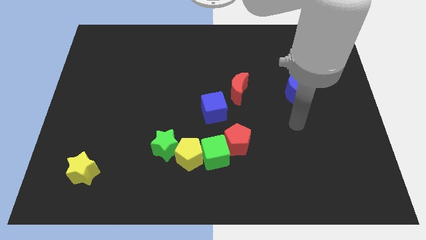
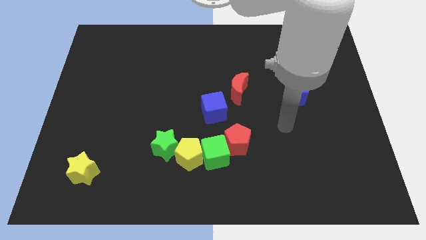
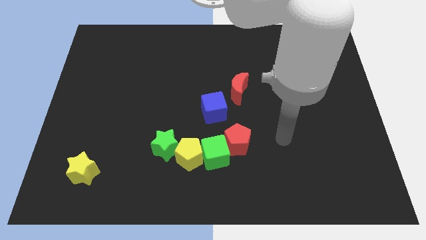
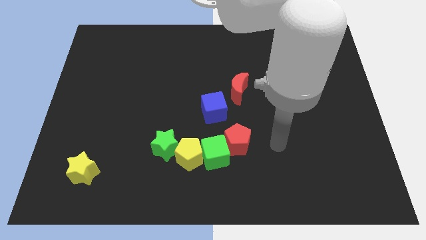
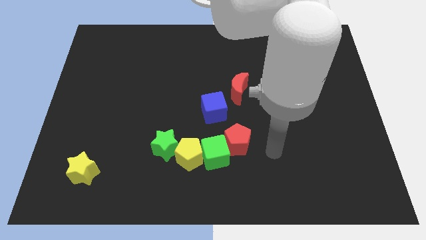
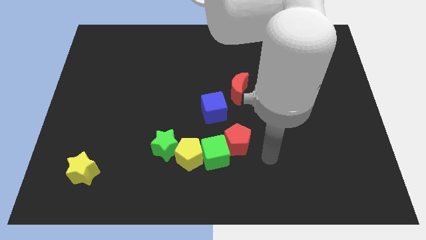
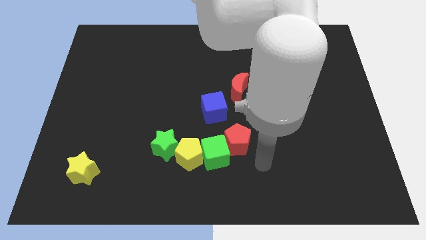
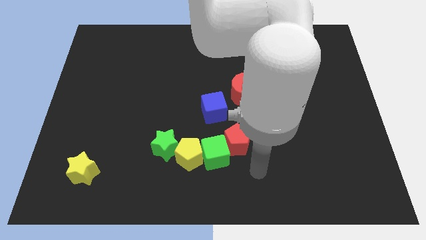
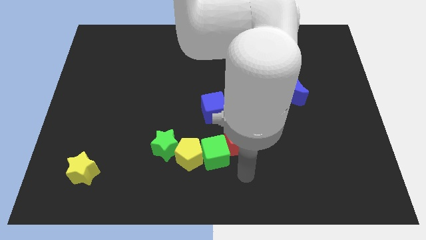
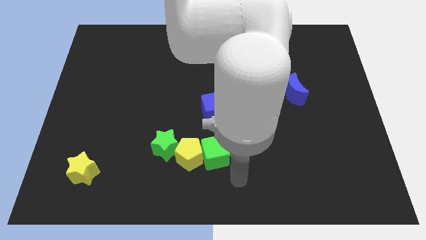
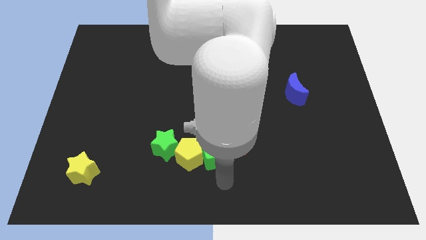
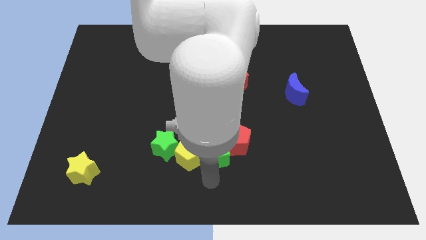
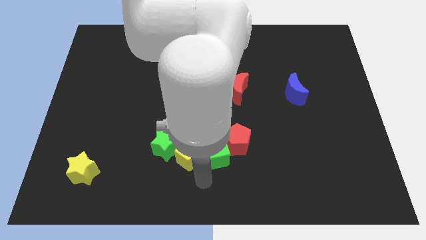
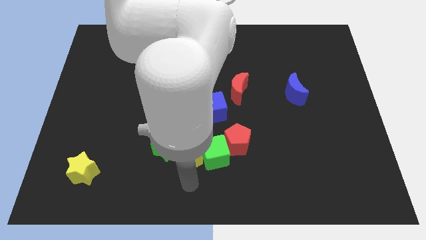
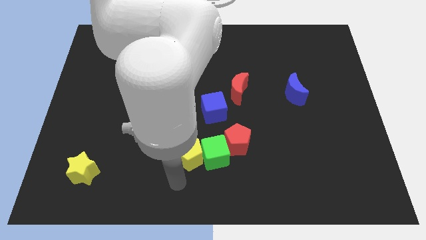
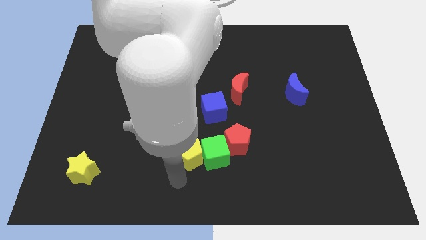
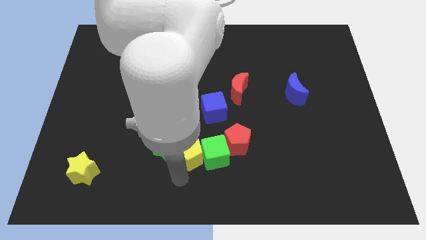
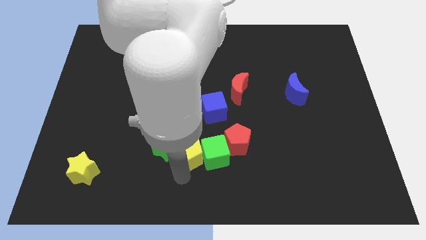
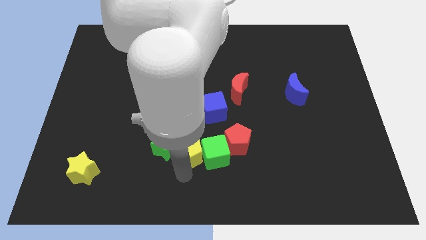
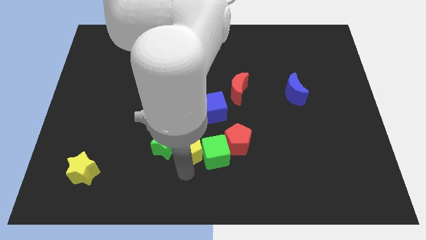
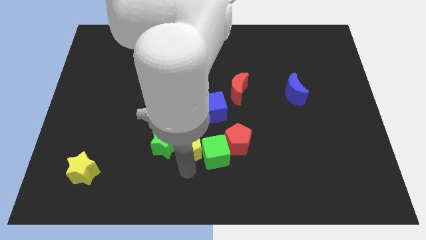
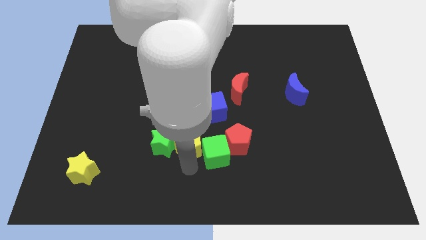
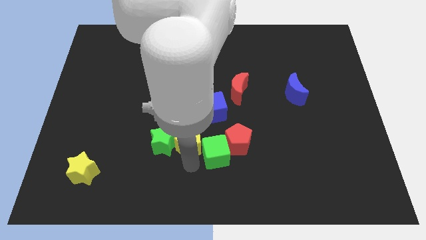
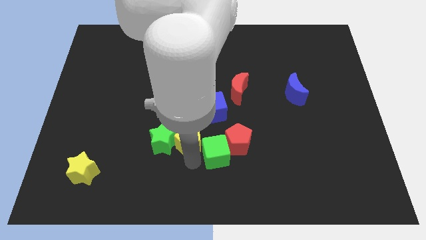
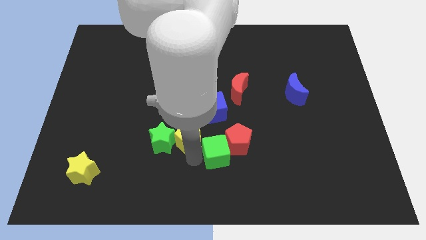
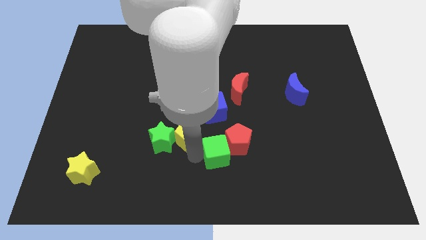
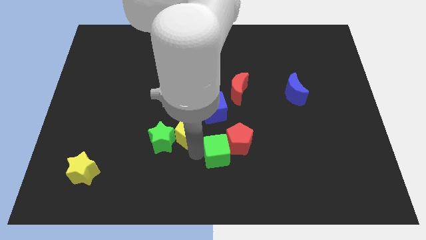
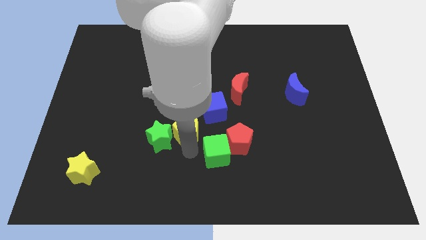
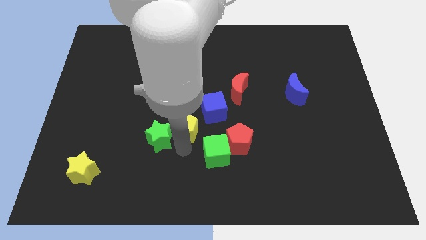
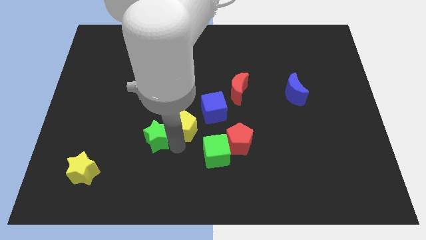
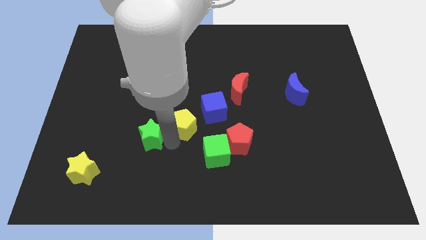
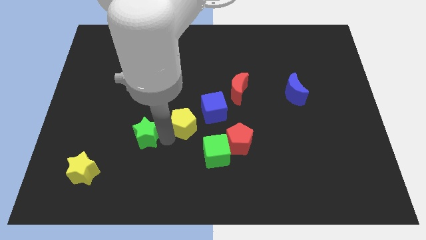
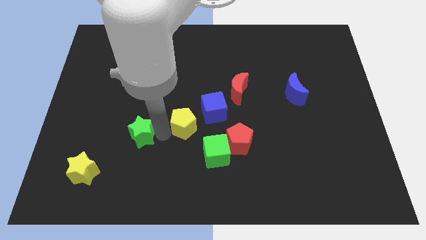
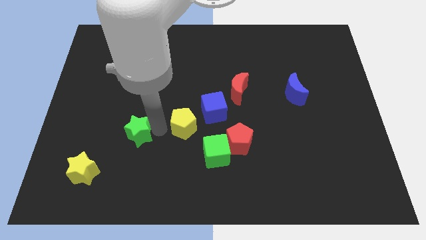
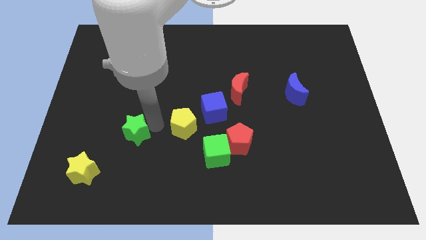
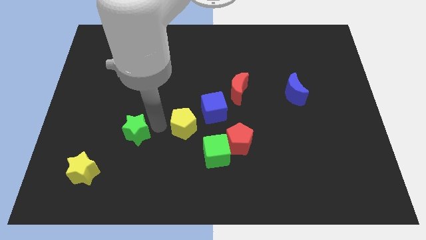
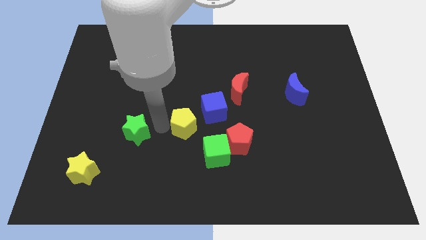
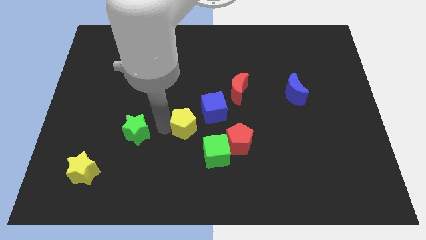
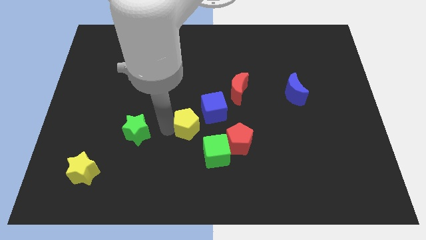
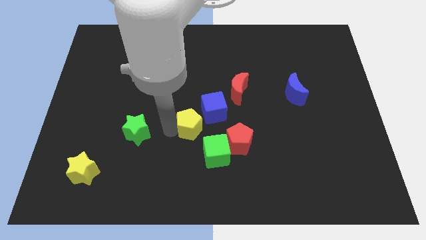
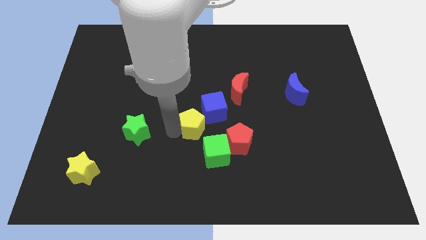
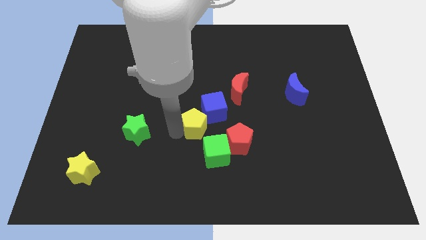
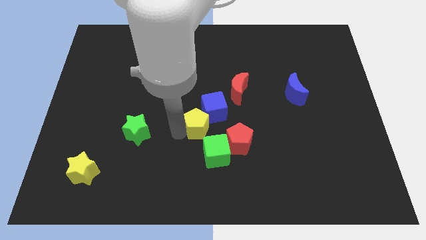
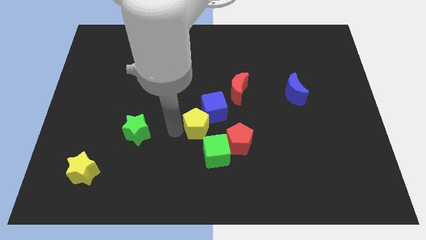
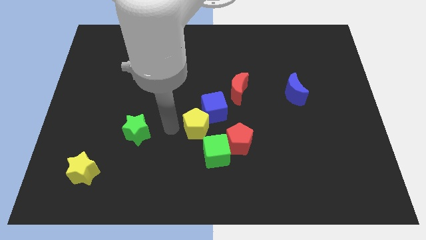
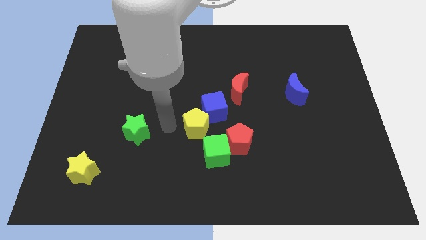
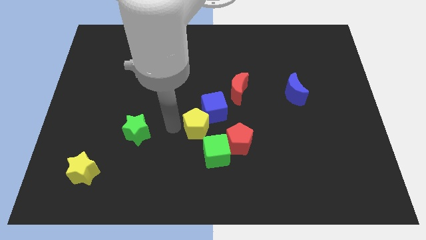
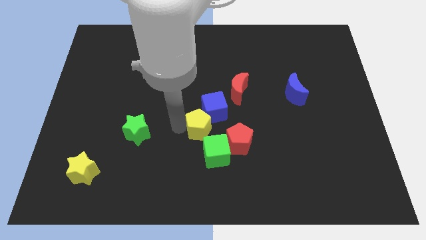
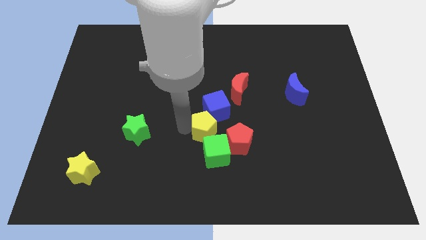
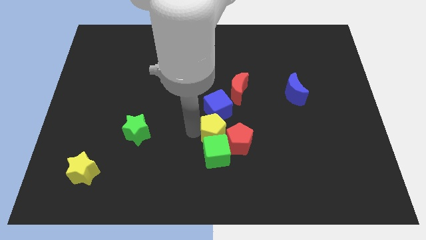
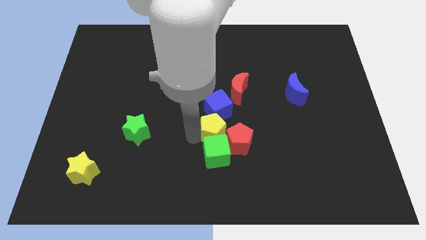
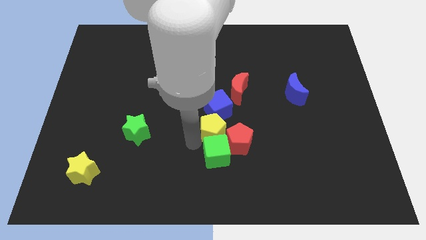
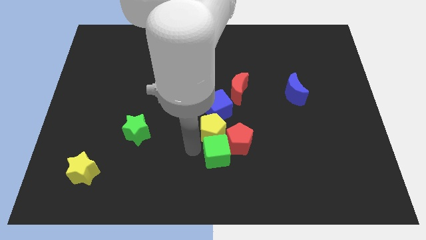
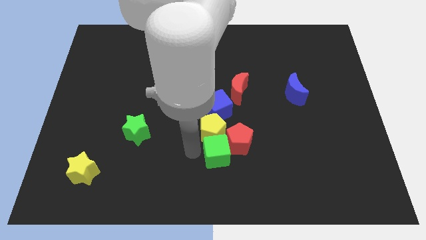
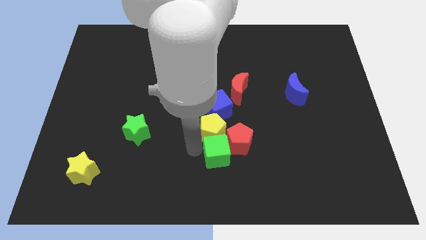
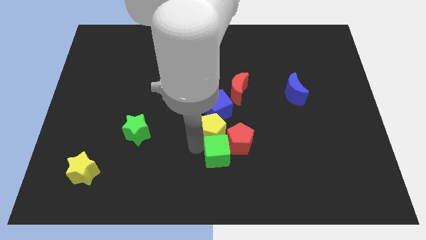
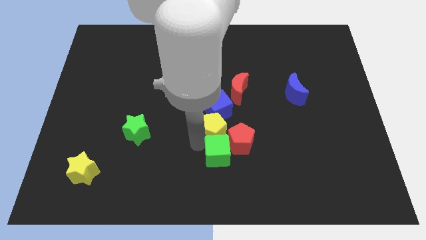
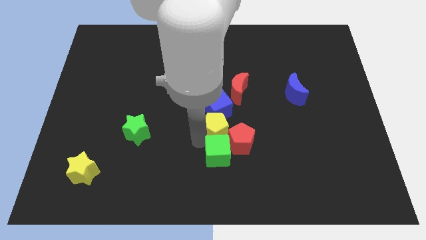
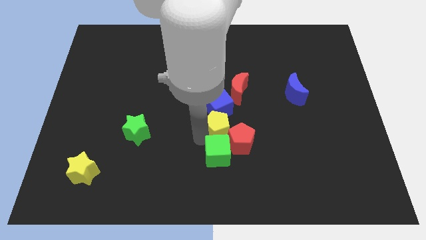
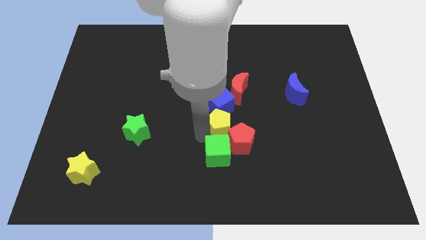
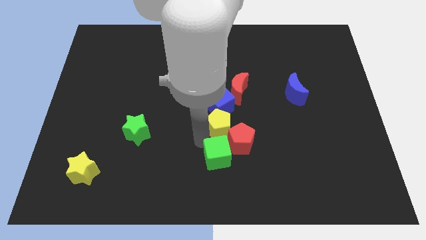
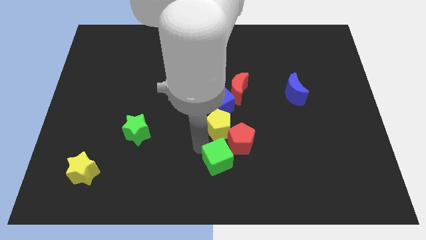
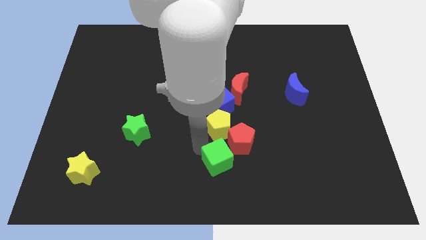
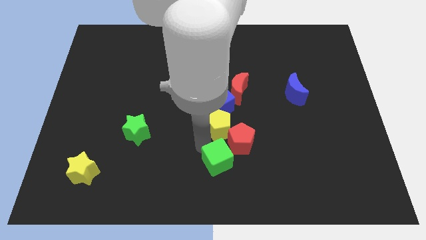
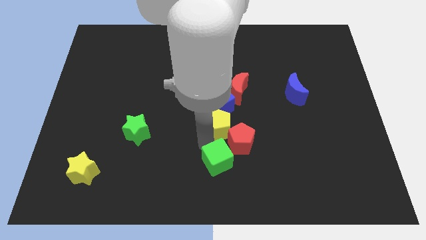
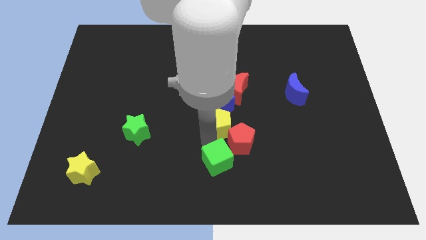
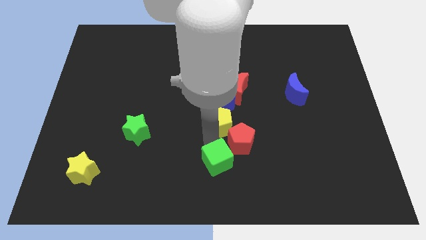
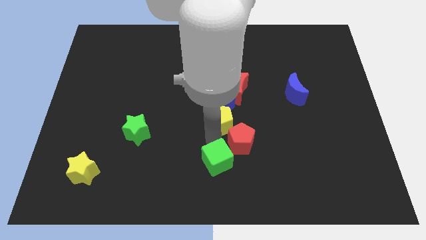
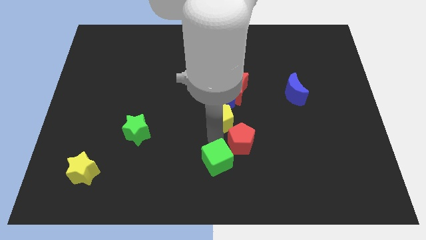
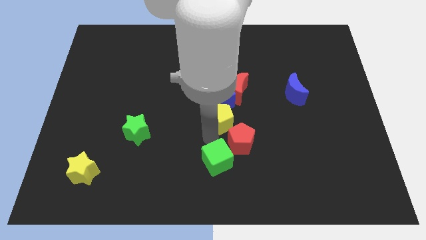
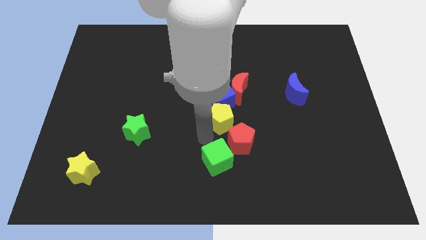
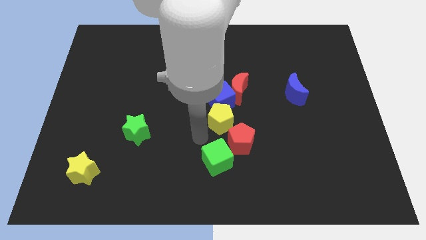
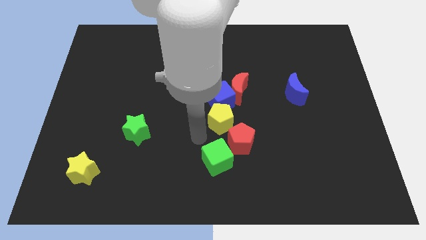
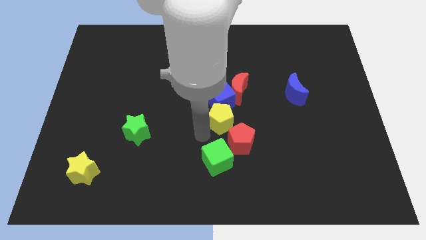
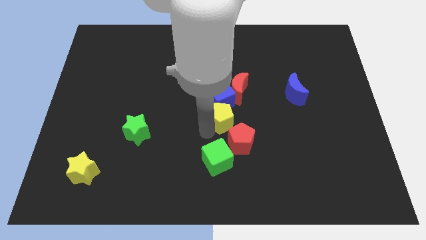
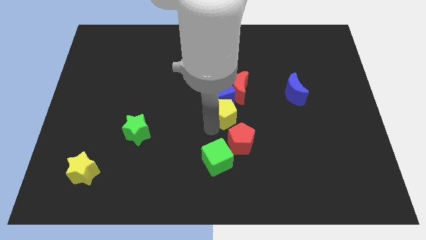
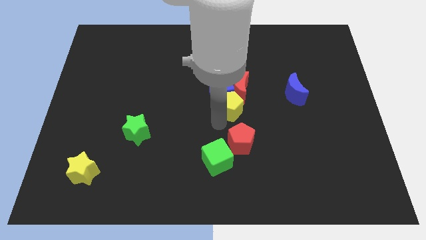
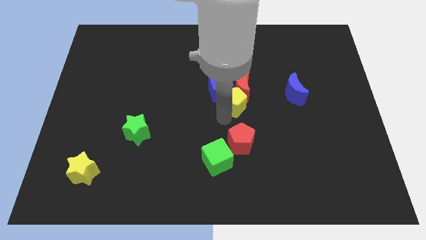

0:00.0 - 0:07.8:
put the yellow pentagon next to the red moon
